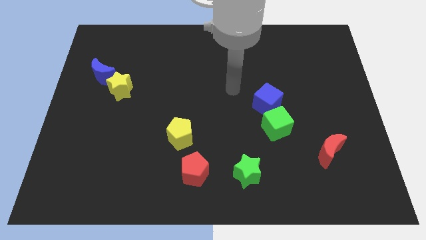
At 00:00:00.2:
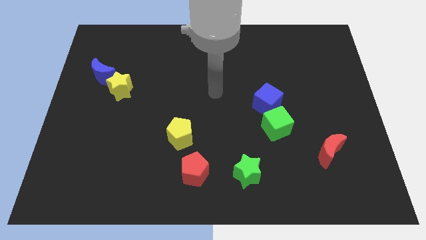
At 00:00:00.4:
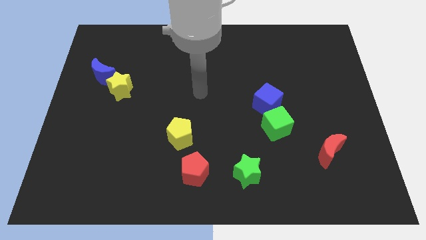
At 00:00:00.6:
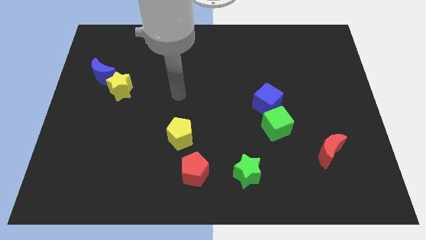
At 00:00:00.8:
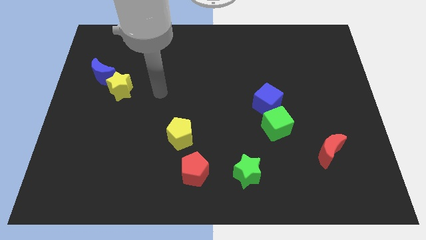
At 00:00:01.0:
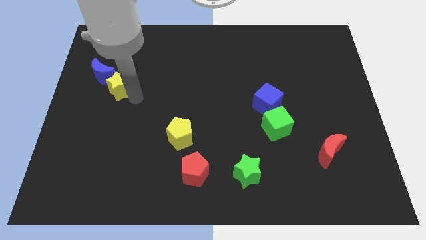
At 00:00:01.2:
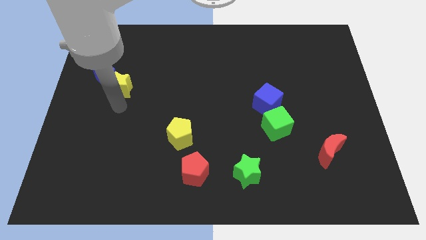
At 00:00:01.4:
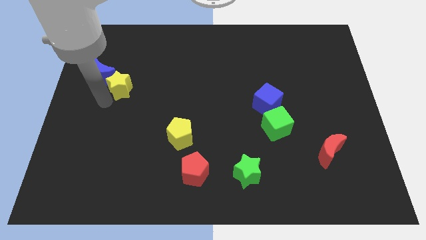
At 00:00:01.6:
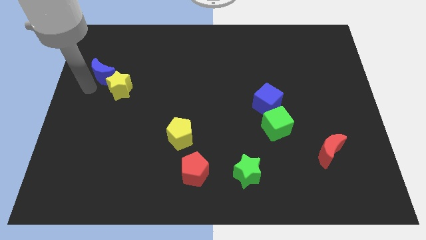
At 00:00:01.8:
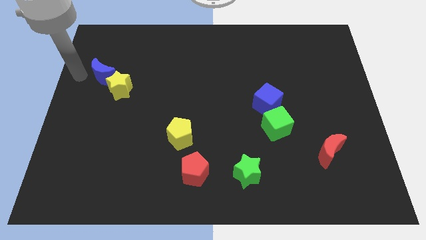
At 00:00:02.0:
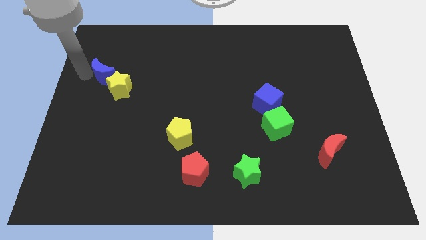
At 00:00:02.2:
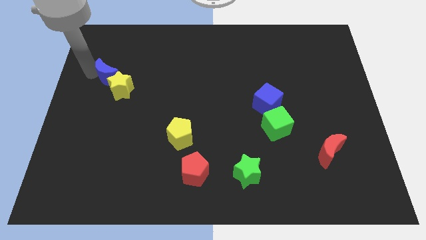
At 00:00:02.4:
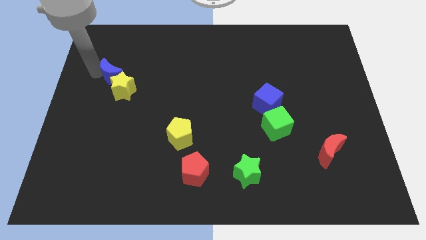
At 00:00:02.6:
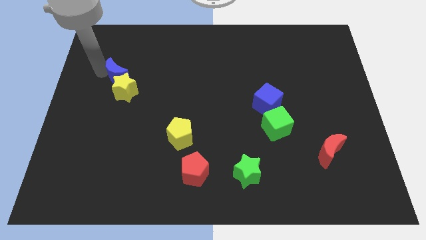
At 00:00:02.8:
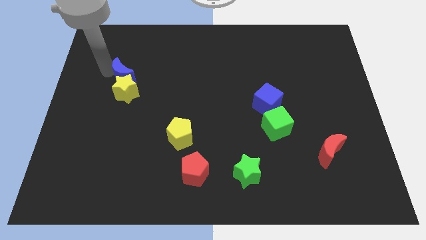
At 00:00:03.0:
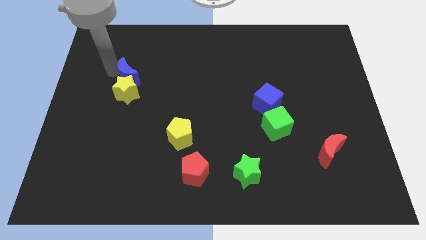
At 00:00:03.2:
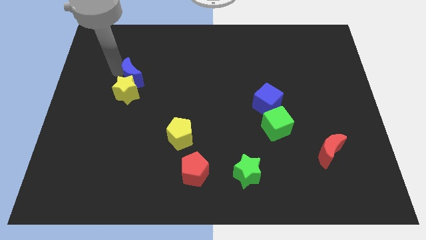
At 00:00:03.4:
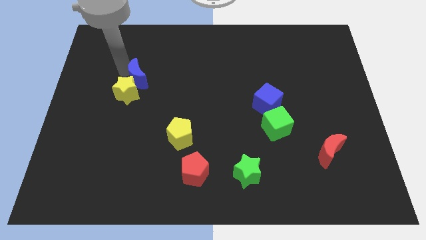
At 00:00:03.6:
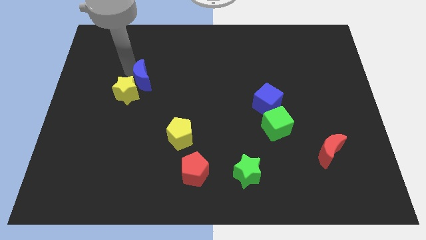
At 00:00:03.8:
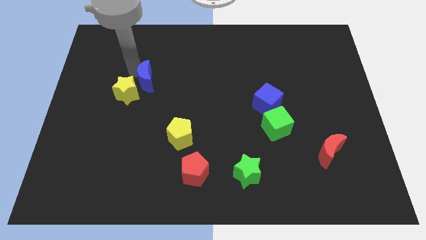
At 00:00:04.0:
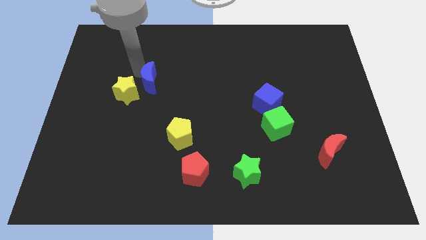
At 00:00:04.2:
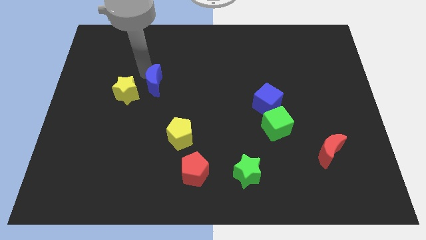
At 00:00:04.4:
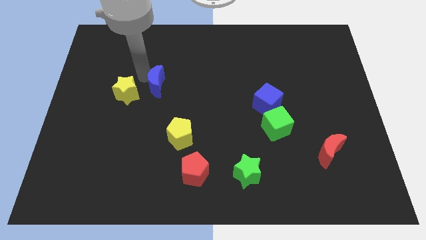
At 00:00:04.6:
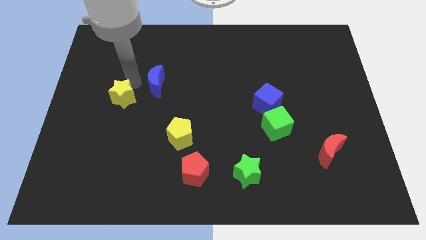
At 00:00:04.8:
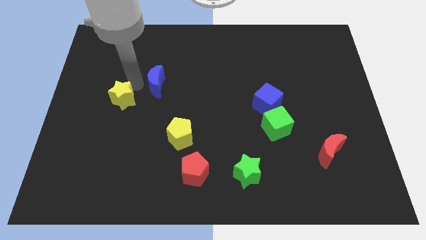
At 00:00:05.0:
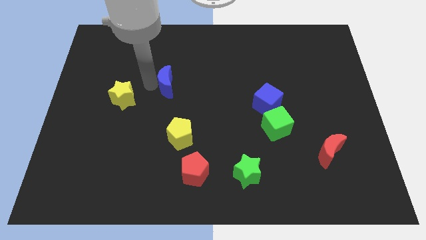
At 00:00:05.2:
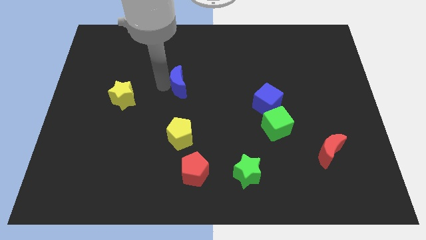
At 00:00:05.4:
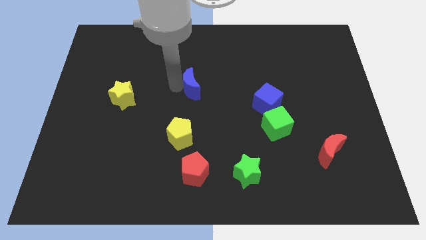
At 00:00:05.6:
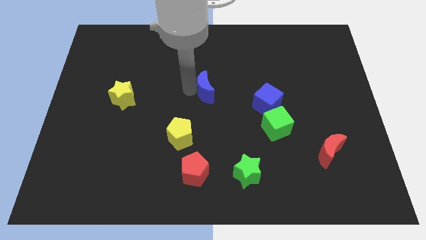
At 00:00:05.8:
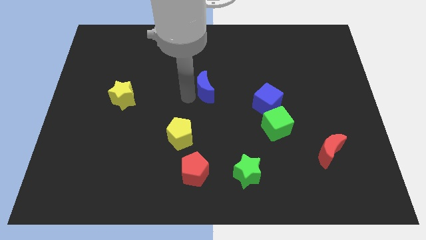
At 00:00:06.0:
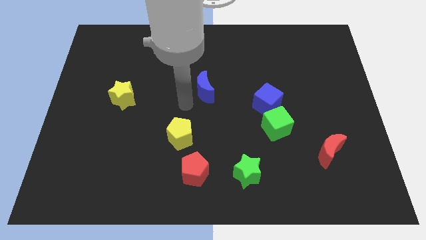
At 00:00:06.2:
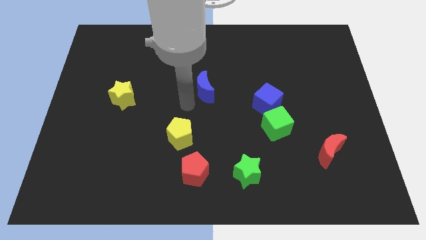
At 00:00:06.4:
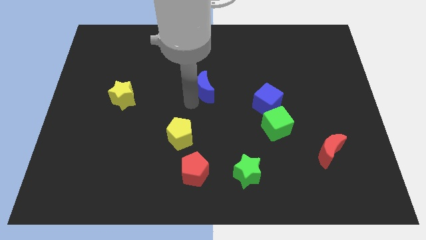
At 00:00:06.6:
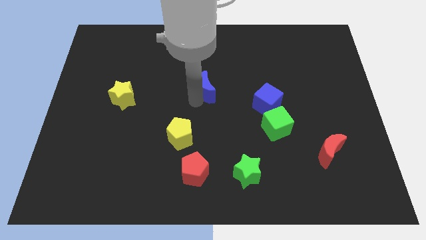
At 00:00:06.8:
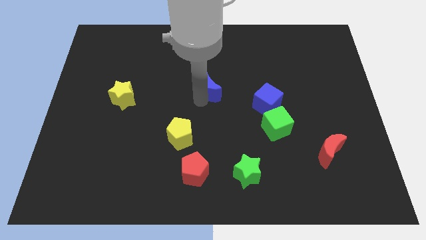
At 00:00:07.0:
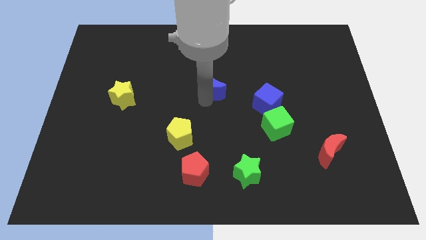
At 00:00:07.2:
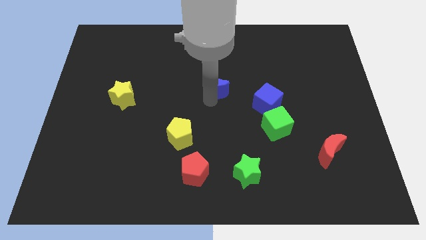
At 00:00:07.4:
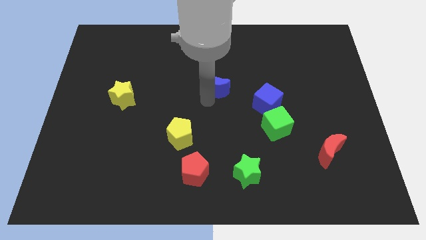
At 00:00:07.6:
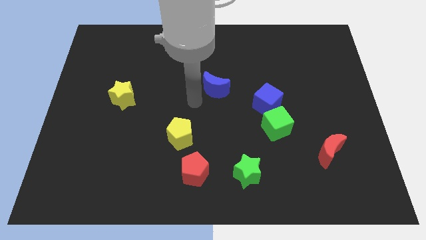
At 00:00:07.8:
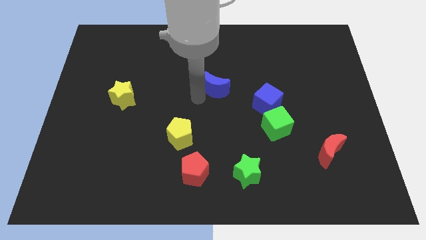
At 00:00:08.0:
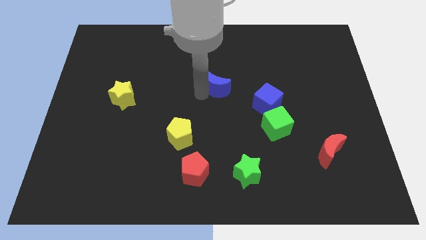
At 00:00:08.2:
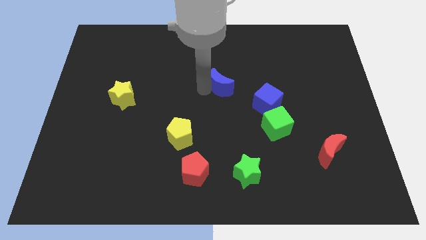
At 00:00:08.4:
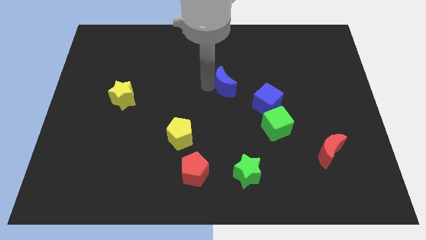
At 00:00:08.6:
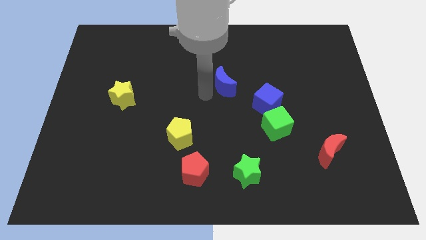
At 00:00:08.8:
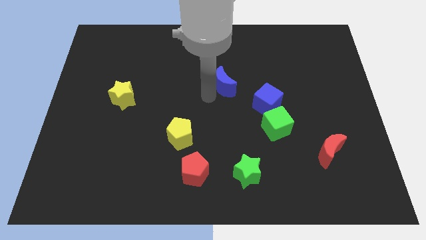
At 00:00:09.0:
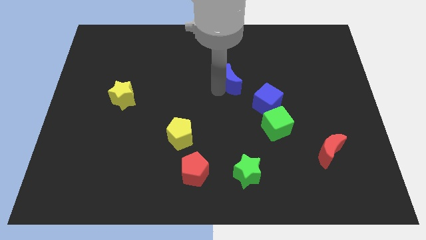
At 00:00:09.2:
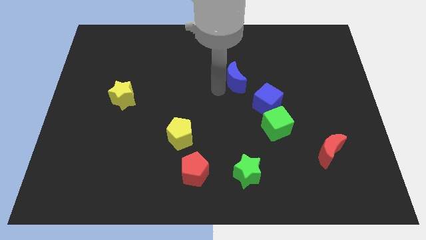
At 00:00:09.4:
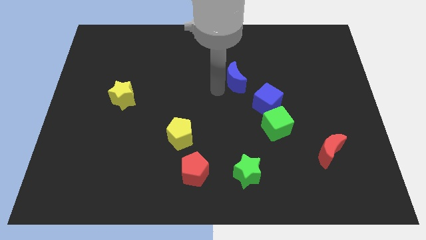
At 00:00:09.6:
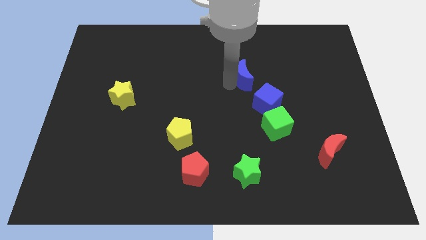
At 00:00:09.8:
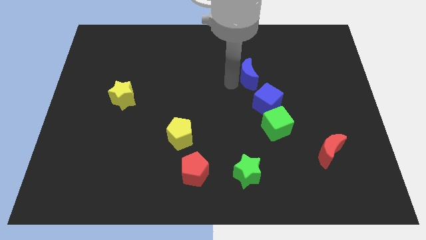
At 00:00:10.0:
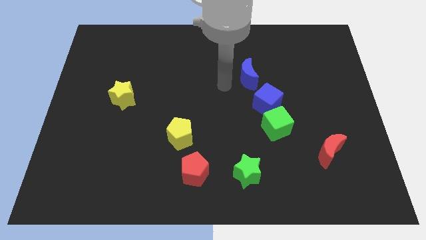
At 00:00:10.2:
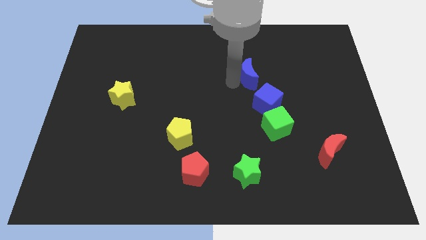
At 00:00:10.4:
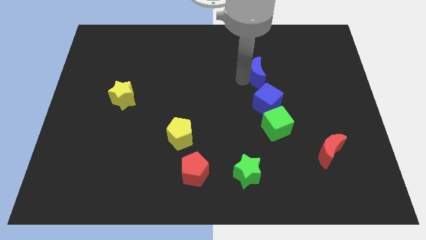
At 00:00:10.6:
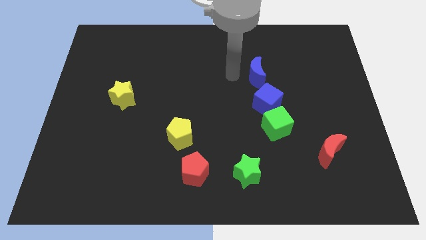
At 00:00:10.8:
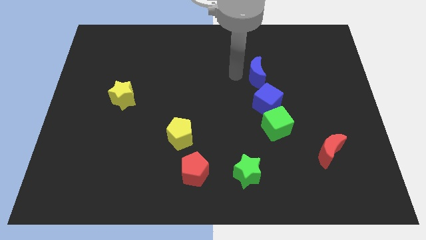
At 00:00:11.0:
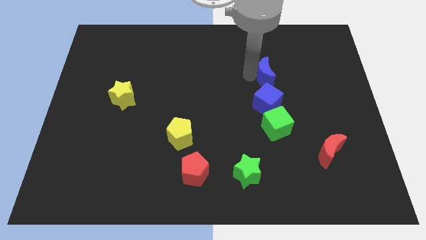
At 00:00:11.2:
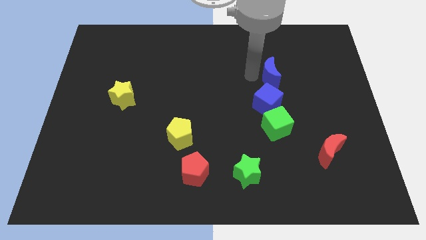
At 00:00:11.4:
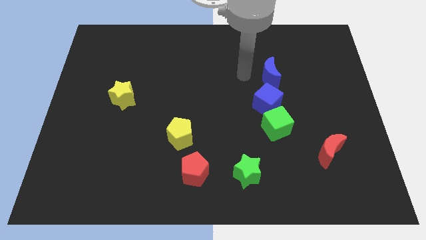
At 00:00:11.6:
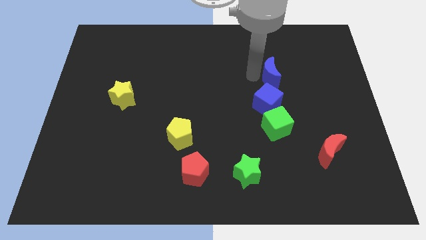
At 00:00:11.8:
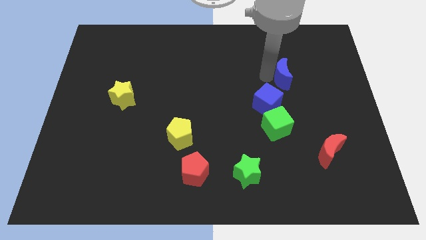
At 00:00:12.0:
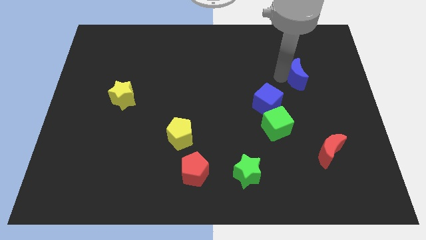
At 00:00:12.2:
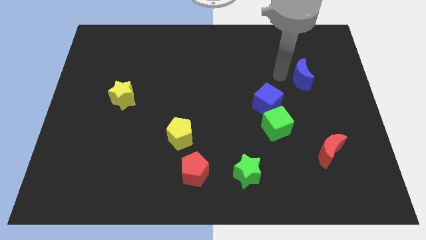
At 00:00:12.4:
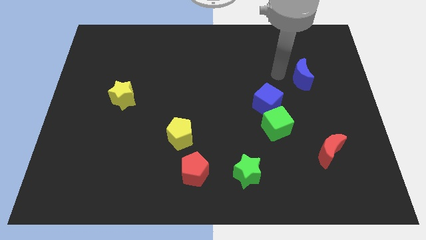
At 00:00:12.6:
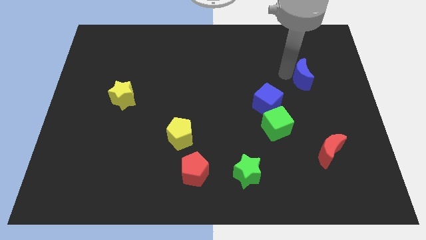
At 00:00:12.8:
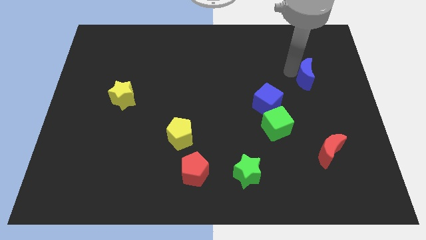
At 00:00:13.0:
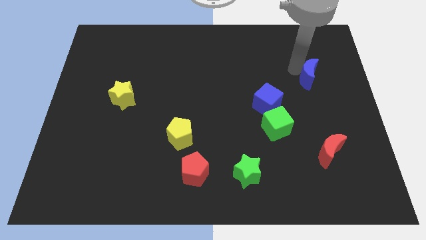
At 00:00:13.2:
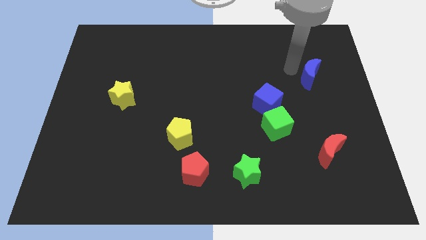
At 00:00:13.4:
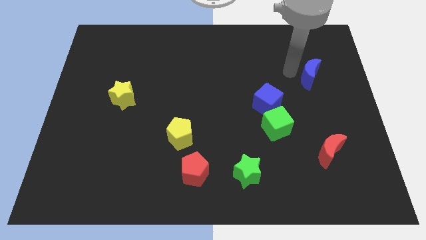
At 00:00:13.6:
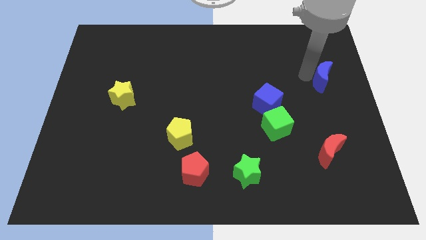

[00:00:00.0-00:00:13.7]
slide the blue moon to the right side
